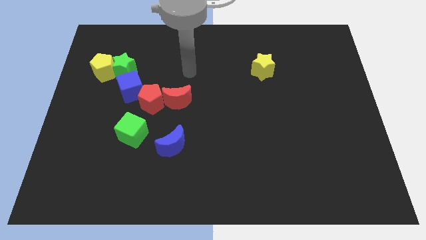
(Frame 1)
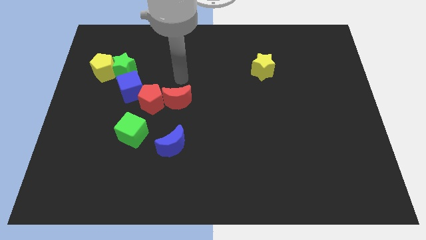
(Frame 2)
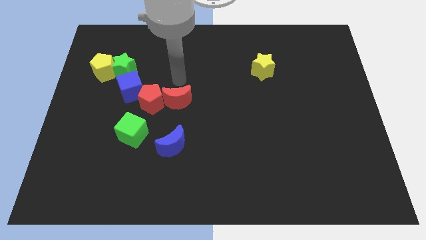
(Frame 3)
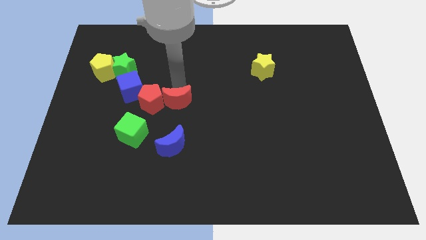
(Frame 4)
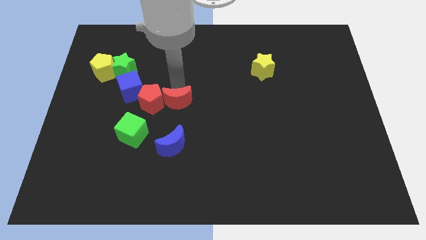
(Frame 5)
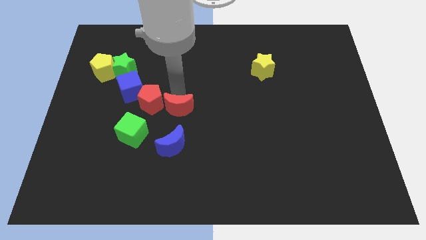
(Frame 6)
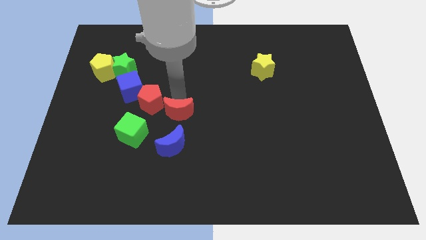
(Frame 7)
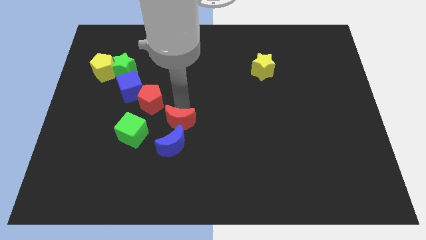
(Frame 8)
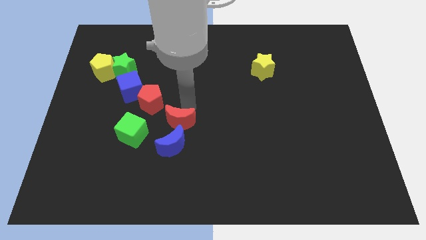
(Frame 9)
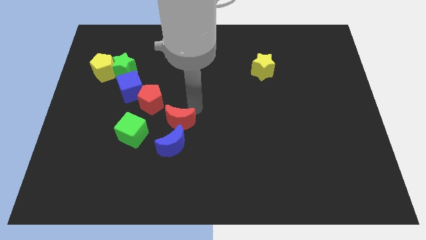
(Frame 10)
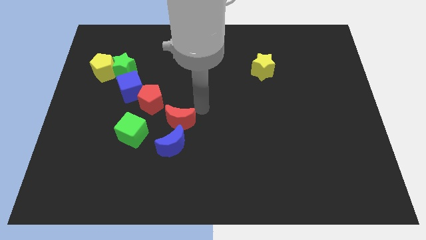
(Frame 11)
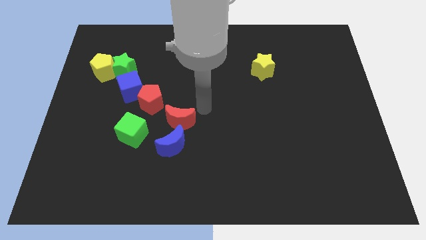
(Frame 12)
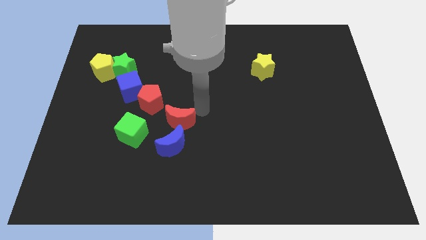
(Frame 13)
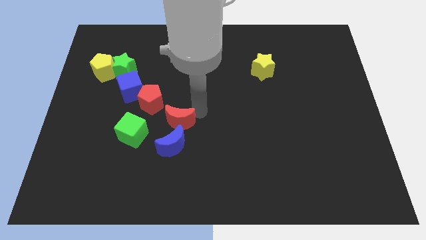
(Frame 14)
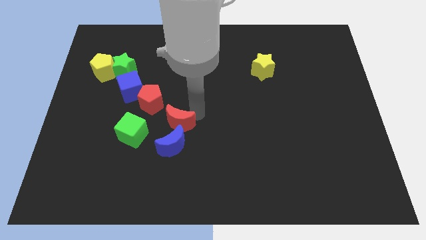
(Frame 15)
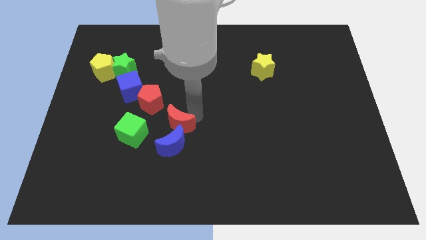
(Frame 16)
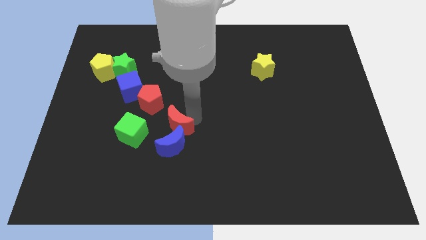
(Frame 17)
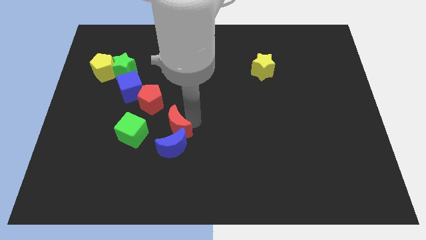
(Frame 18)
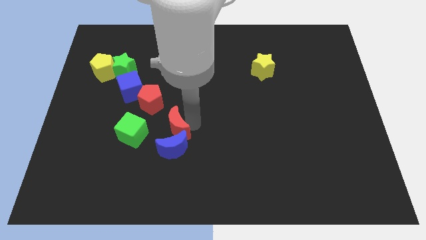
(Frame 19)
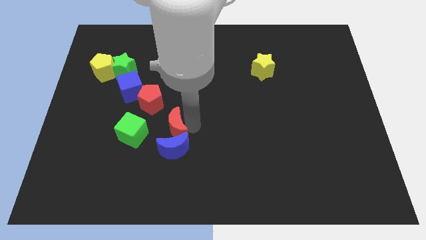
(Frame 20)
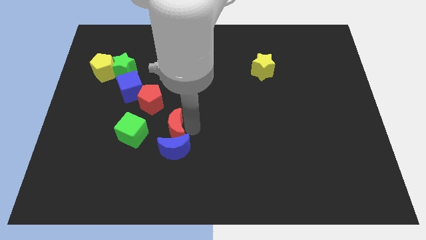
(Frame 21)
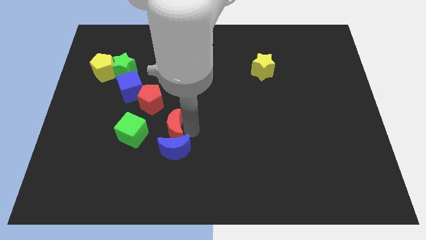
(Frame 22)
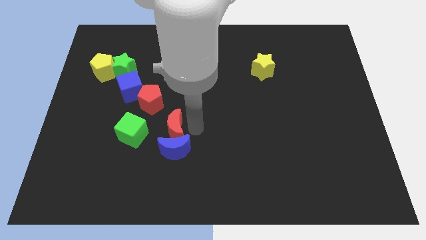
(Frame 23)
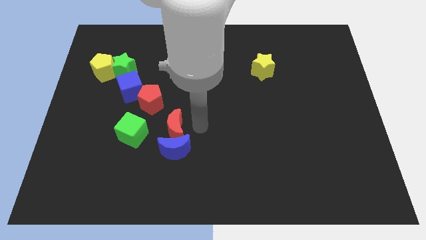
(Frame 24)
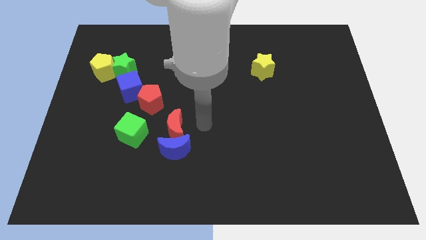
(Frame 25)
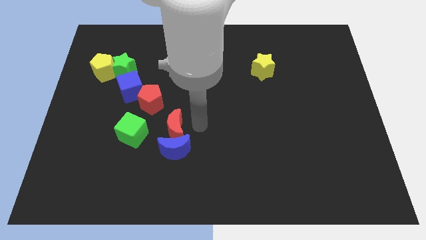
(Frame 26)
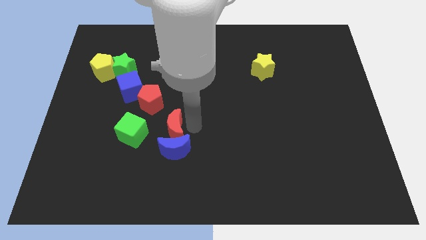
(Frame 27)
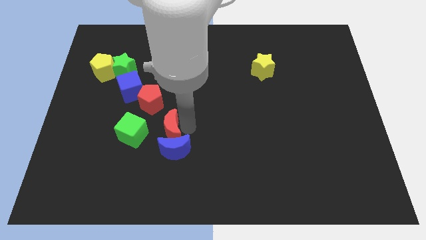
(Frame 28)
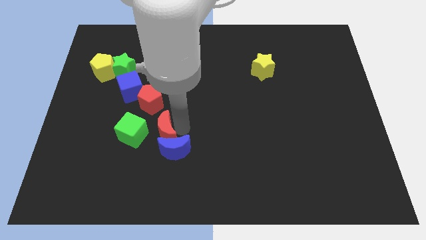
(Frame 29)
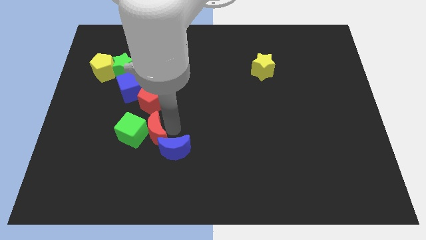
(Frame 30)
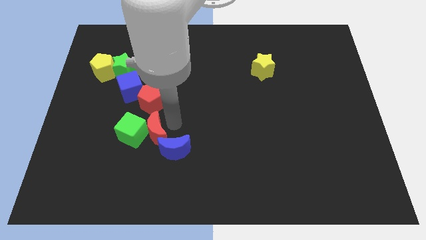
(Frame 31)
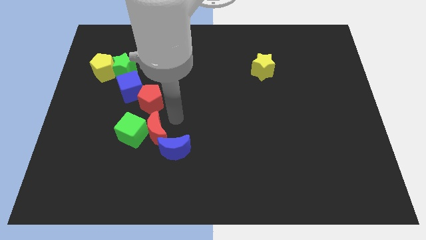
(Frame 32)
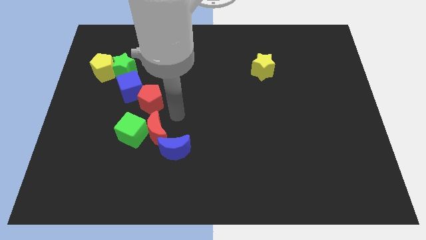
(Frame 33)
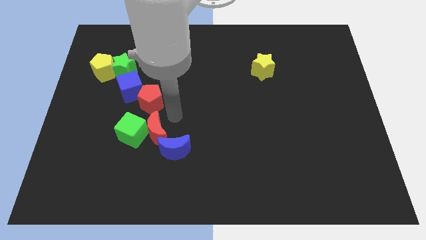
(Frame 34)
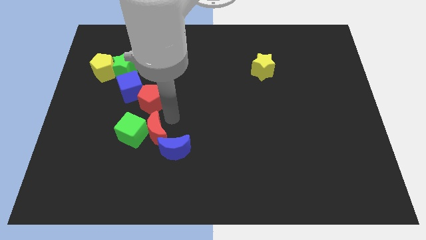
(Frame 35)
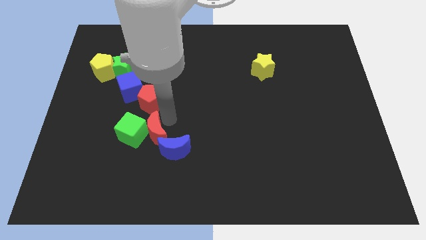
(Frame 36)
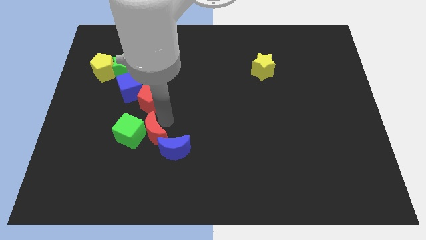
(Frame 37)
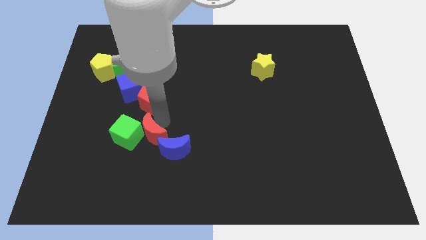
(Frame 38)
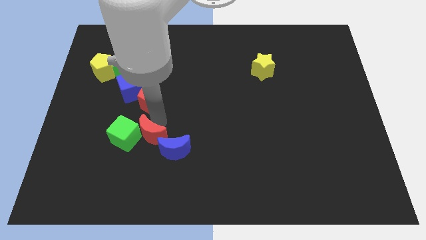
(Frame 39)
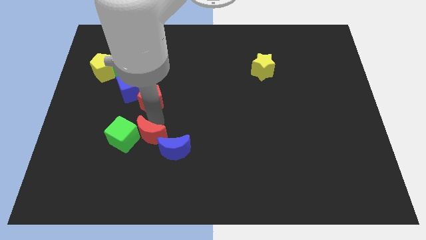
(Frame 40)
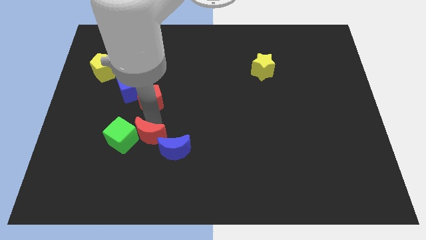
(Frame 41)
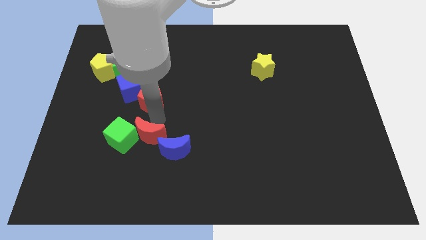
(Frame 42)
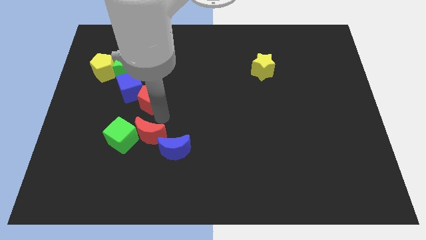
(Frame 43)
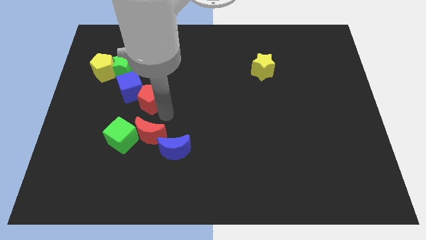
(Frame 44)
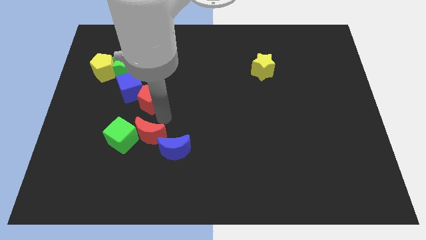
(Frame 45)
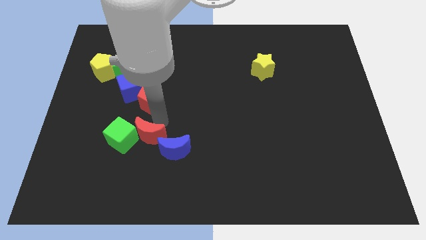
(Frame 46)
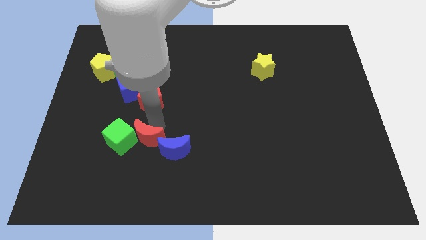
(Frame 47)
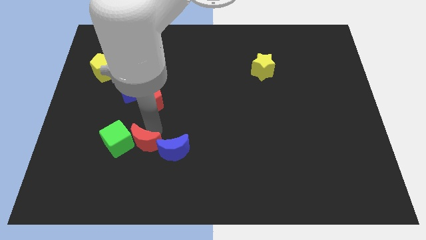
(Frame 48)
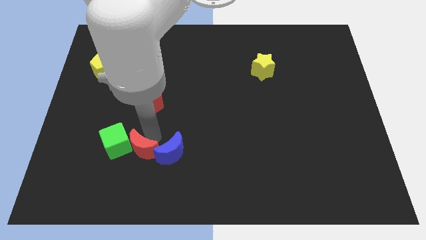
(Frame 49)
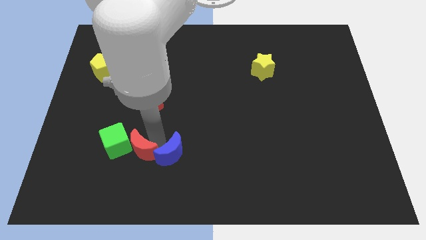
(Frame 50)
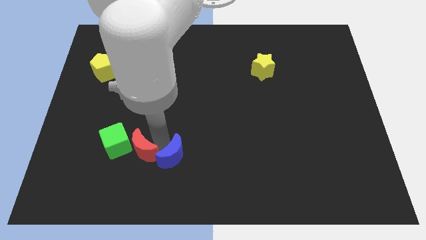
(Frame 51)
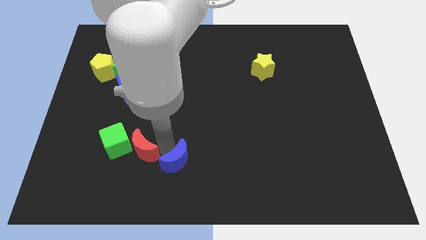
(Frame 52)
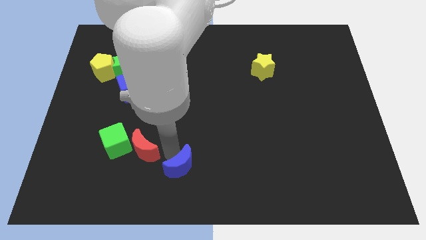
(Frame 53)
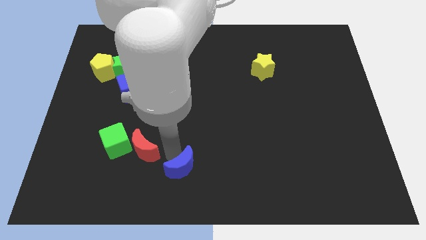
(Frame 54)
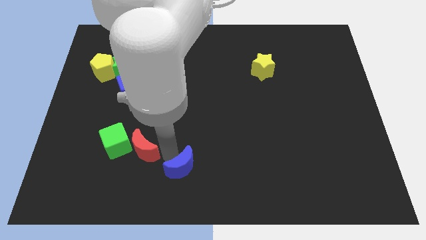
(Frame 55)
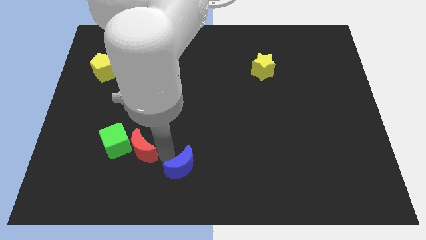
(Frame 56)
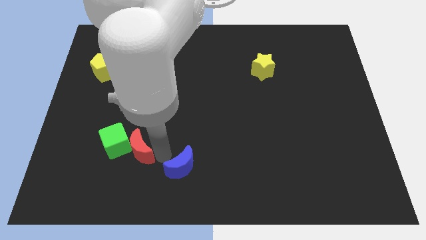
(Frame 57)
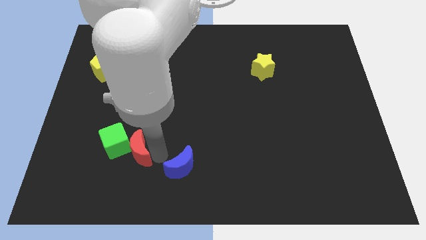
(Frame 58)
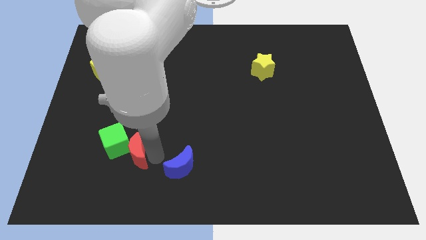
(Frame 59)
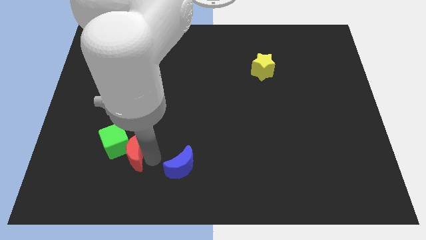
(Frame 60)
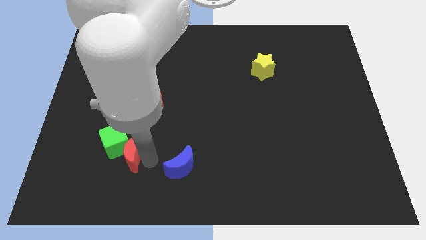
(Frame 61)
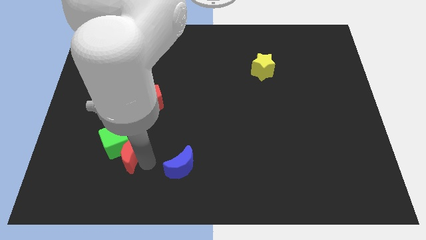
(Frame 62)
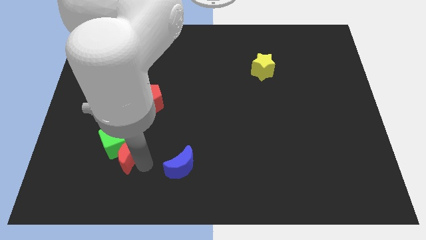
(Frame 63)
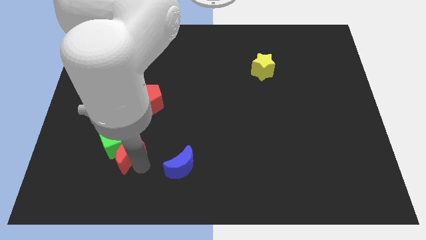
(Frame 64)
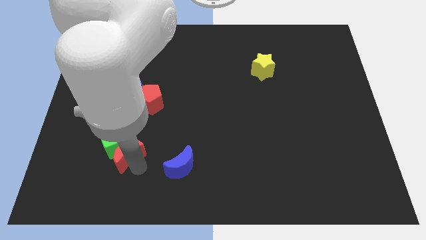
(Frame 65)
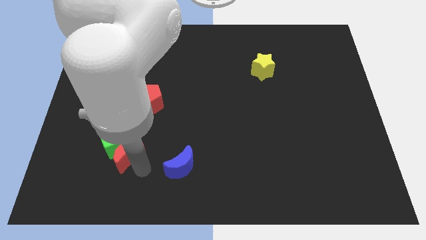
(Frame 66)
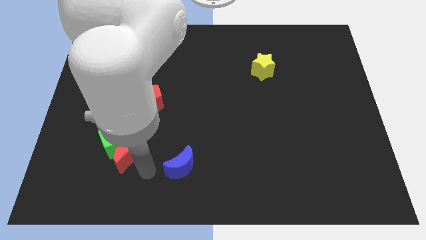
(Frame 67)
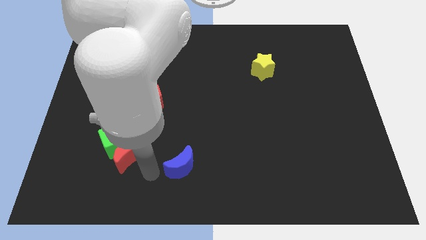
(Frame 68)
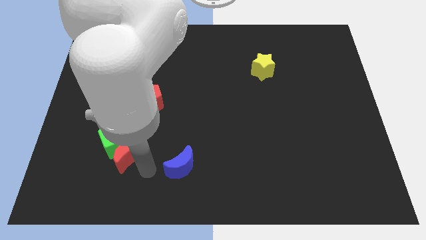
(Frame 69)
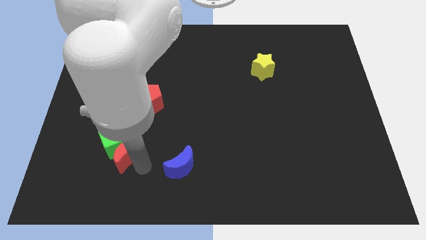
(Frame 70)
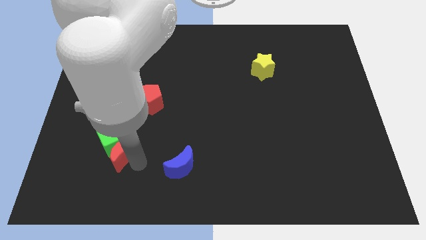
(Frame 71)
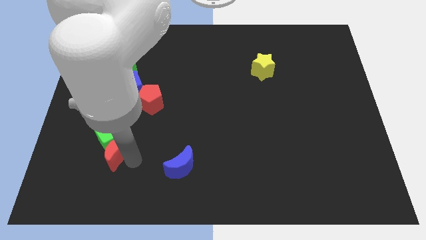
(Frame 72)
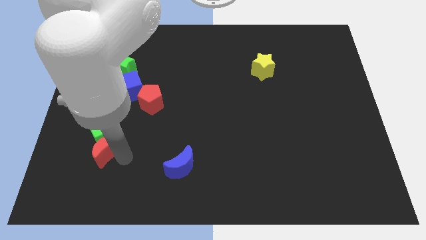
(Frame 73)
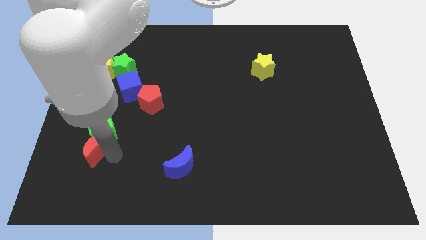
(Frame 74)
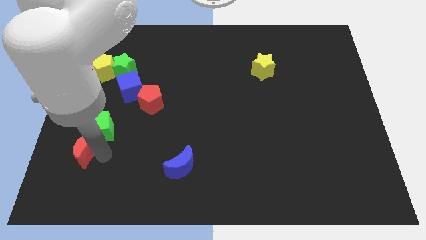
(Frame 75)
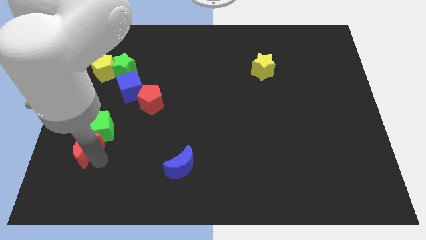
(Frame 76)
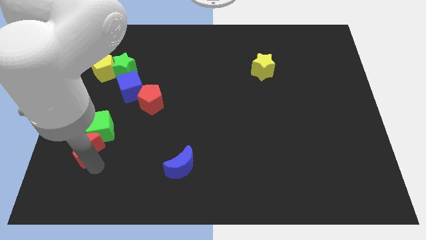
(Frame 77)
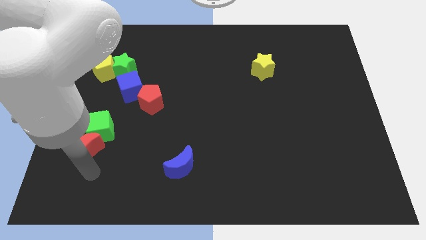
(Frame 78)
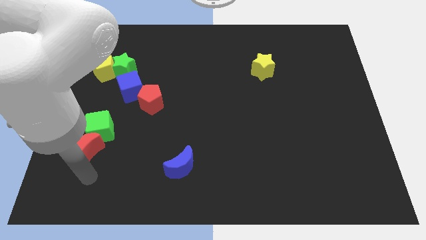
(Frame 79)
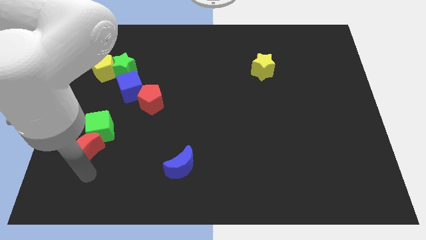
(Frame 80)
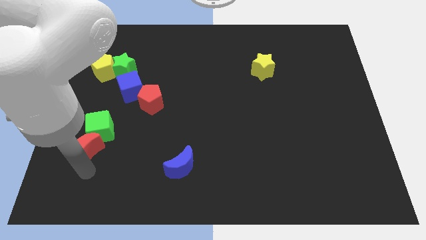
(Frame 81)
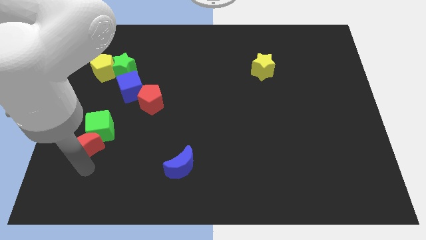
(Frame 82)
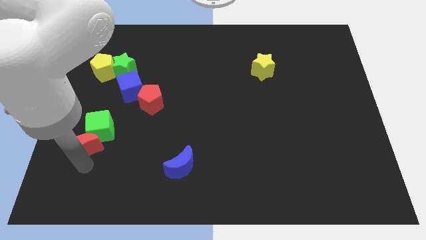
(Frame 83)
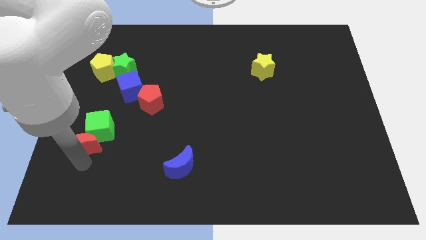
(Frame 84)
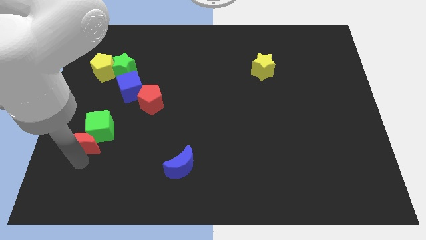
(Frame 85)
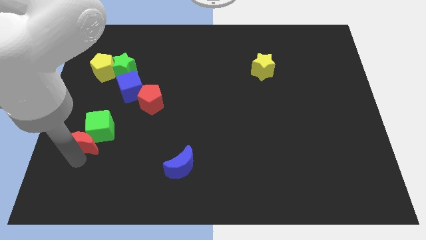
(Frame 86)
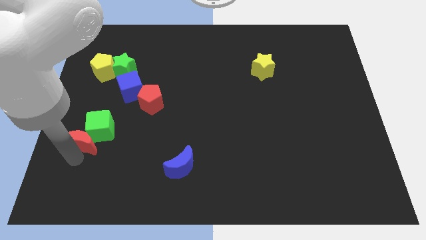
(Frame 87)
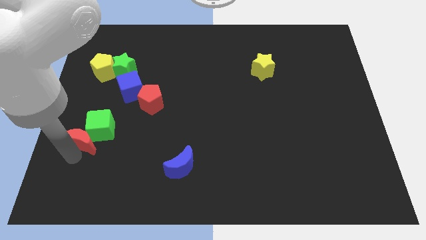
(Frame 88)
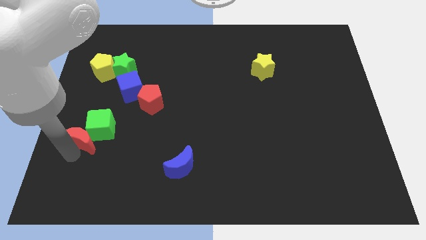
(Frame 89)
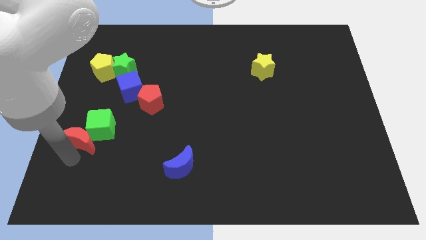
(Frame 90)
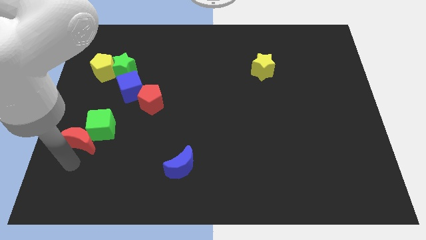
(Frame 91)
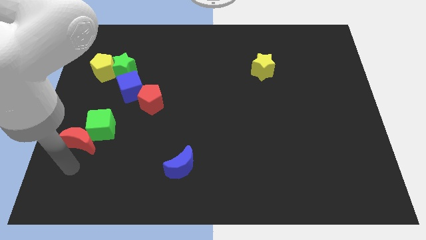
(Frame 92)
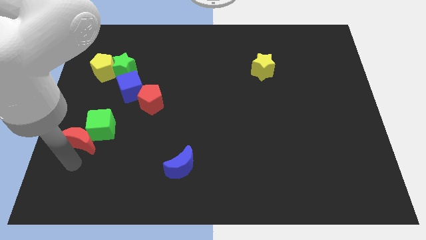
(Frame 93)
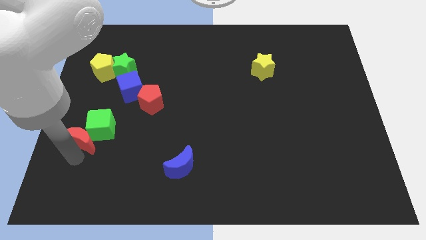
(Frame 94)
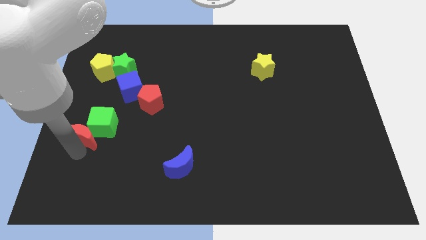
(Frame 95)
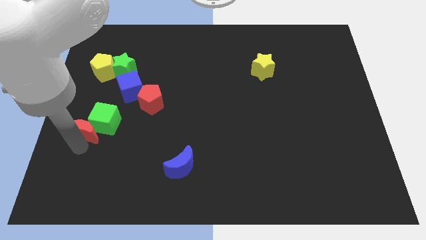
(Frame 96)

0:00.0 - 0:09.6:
slide the red moon to the left side of the board
